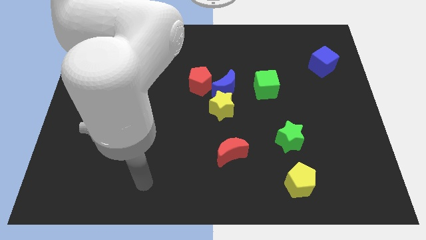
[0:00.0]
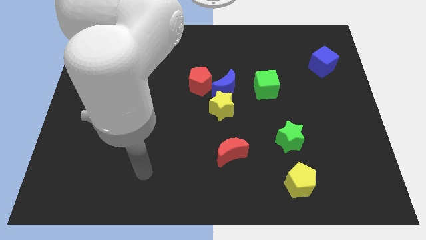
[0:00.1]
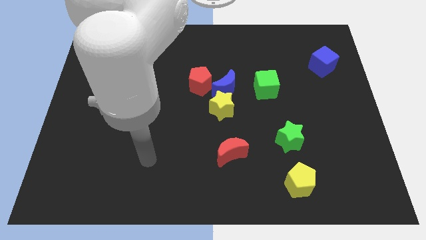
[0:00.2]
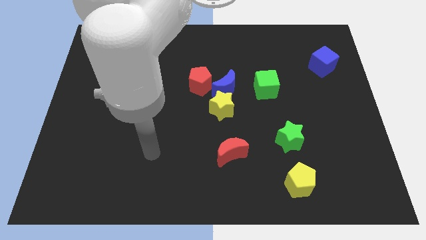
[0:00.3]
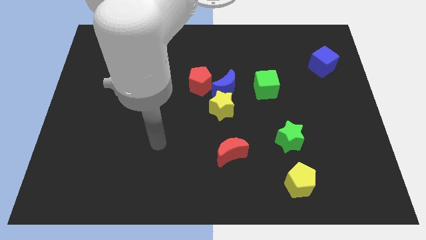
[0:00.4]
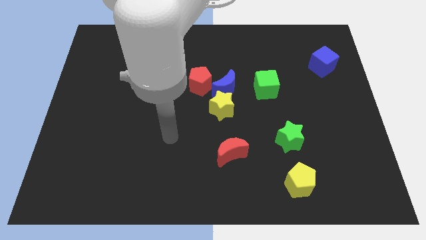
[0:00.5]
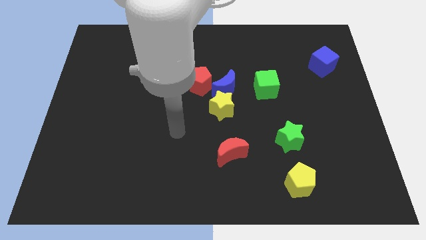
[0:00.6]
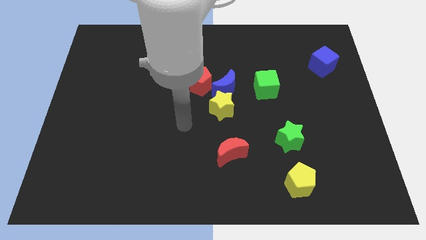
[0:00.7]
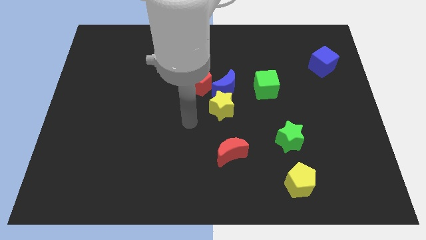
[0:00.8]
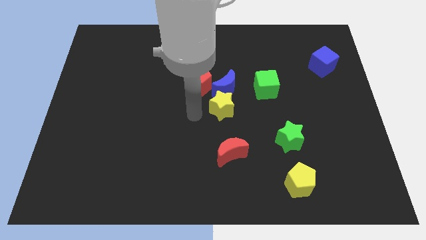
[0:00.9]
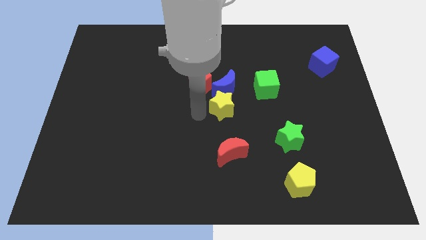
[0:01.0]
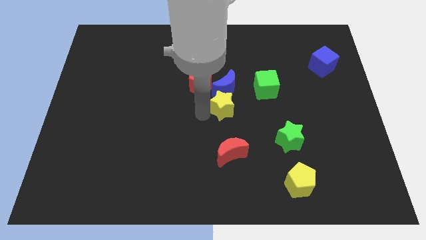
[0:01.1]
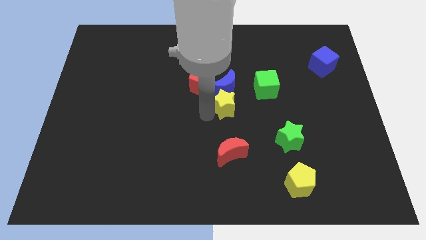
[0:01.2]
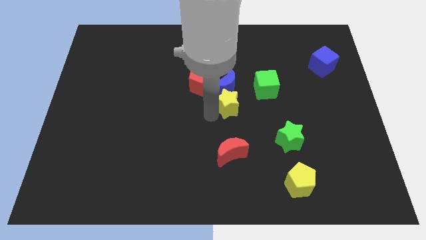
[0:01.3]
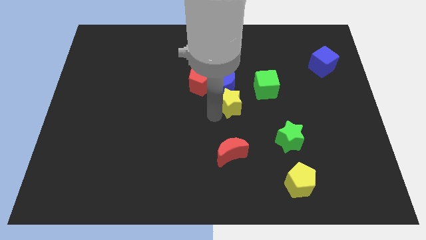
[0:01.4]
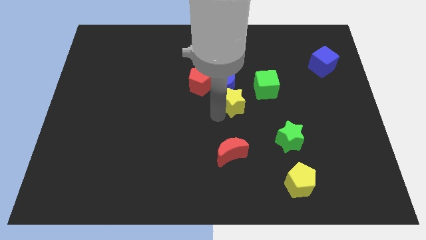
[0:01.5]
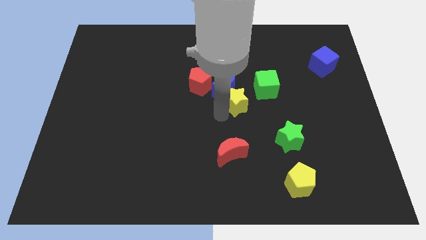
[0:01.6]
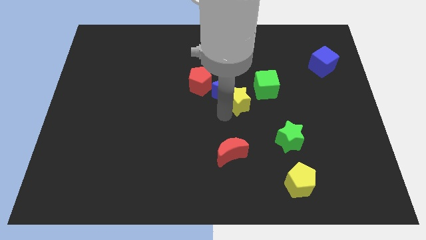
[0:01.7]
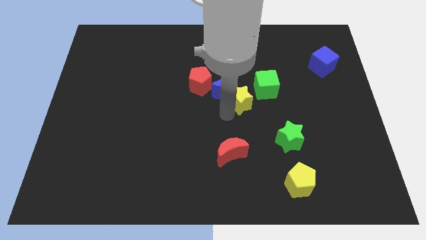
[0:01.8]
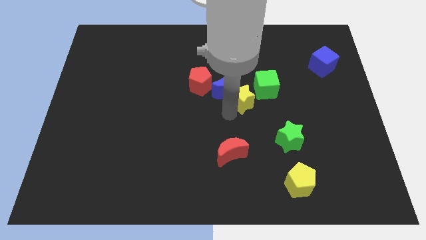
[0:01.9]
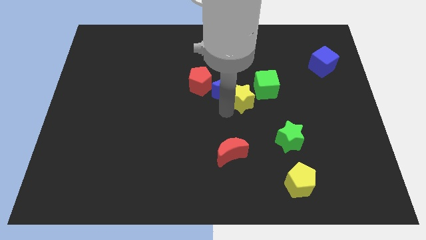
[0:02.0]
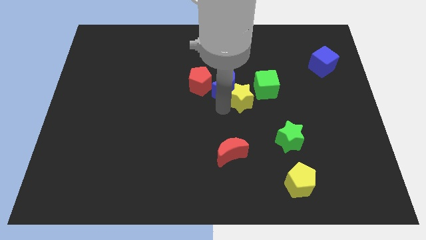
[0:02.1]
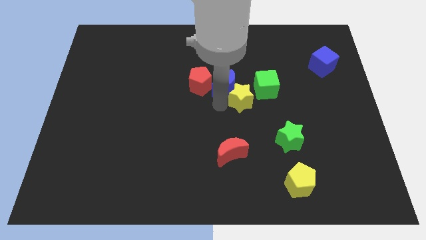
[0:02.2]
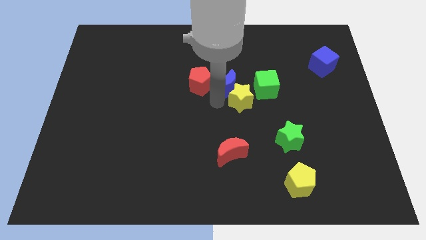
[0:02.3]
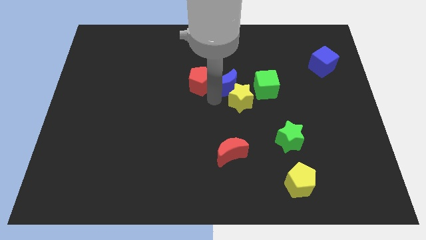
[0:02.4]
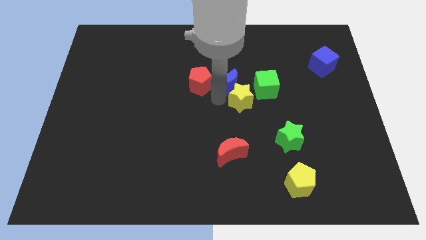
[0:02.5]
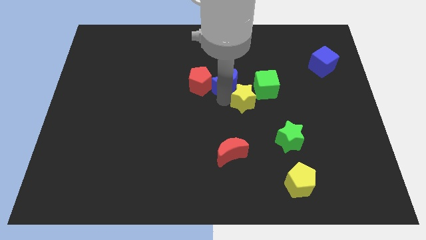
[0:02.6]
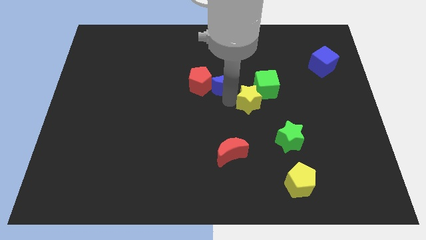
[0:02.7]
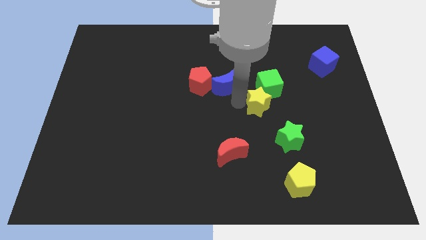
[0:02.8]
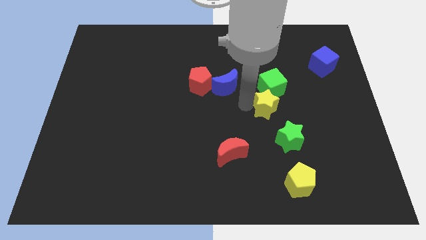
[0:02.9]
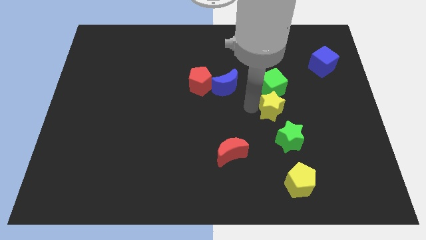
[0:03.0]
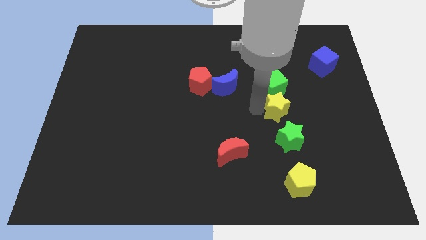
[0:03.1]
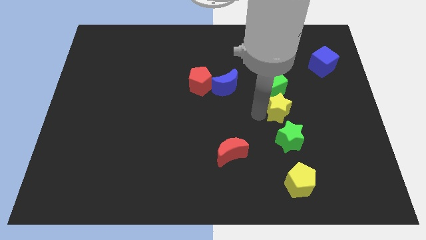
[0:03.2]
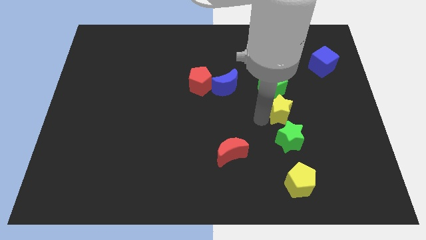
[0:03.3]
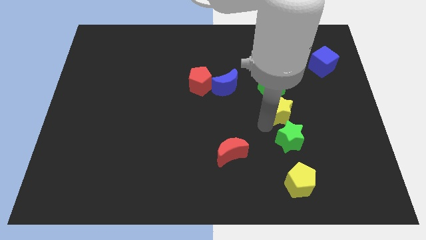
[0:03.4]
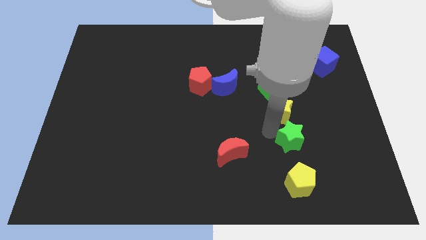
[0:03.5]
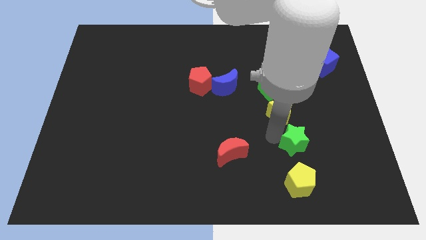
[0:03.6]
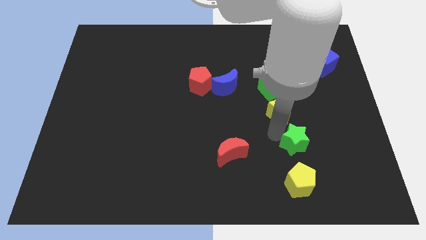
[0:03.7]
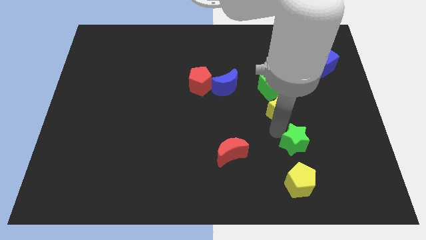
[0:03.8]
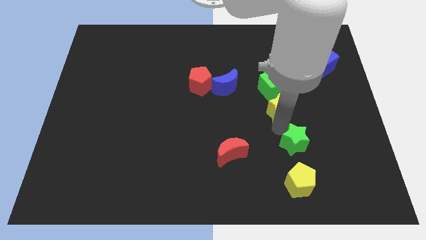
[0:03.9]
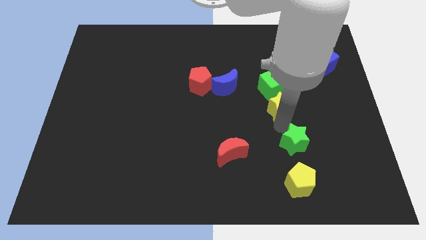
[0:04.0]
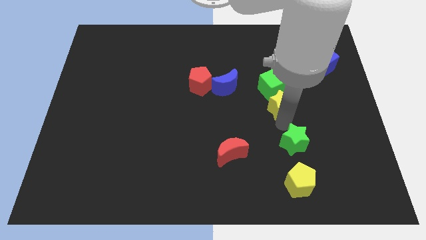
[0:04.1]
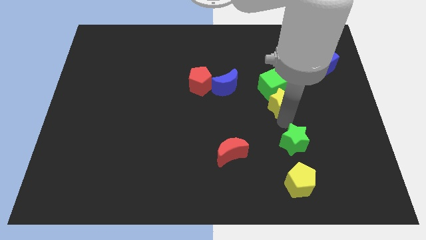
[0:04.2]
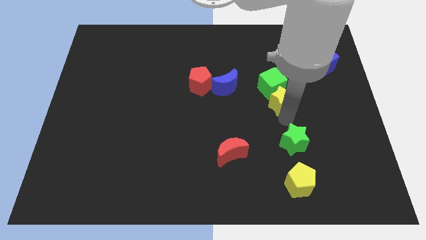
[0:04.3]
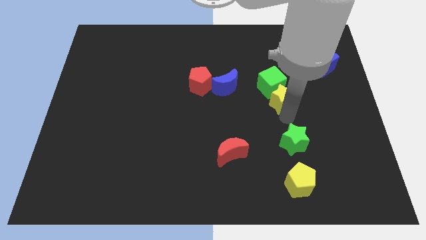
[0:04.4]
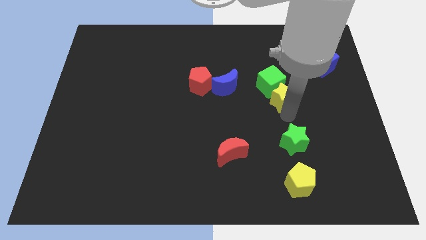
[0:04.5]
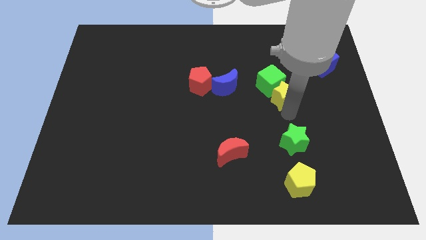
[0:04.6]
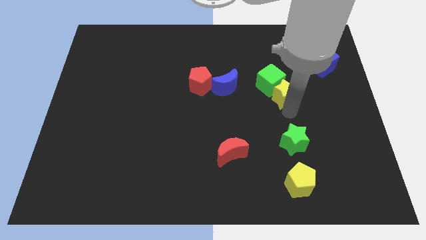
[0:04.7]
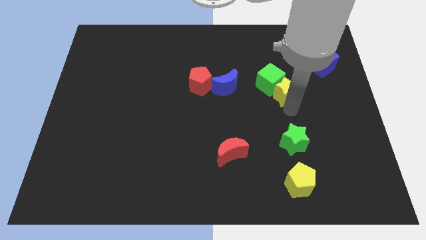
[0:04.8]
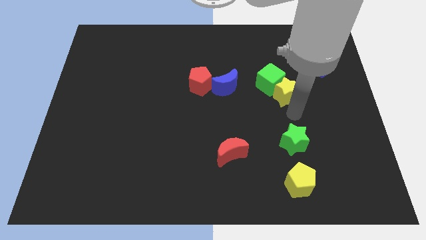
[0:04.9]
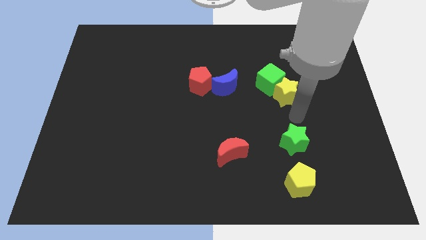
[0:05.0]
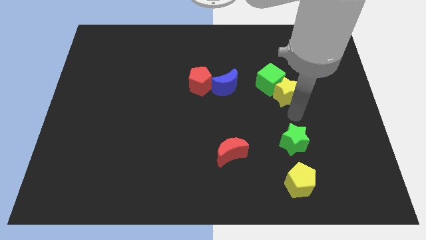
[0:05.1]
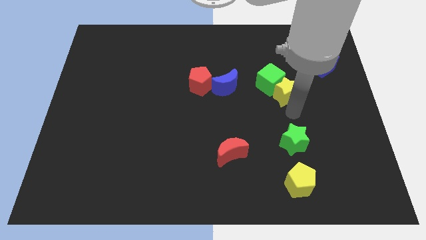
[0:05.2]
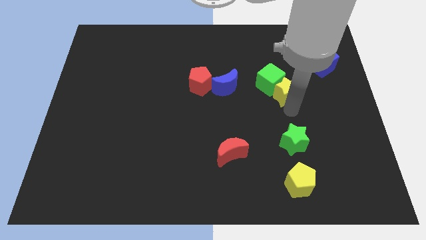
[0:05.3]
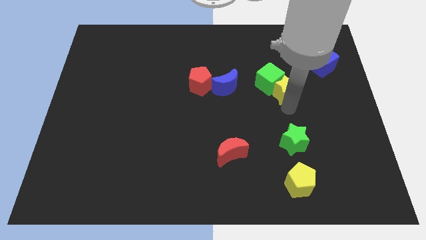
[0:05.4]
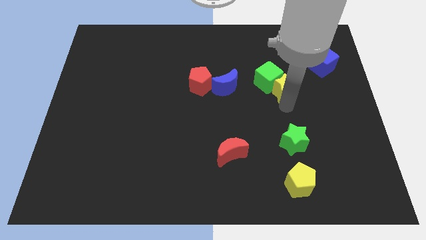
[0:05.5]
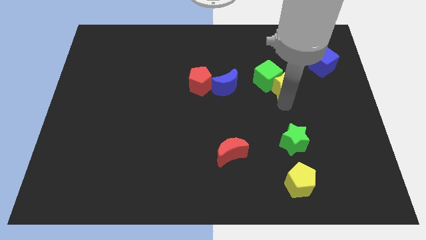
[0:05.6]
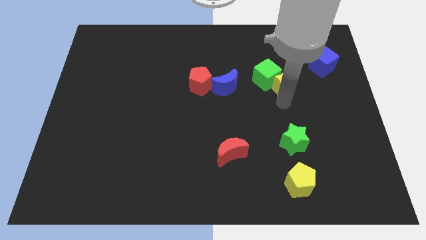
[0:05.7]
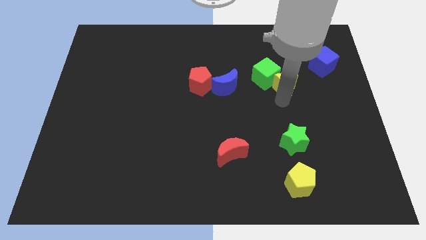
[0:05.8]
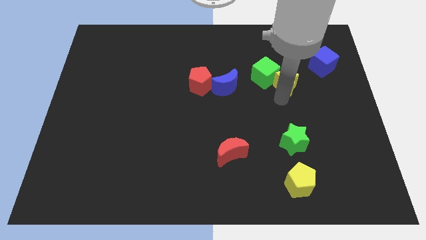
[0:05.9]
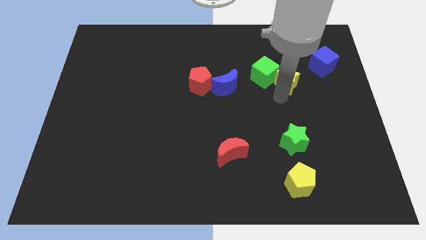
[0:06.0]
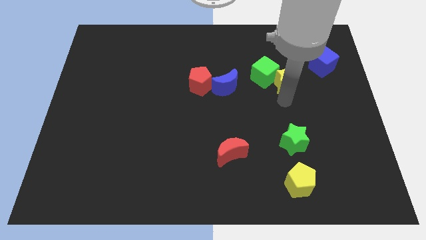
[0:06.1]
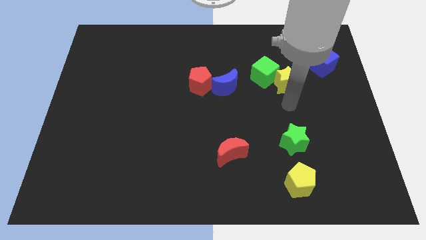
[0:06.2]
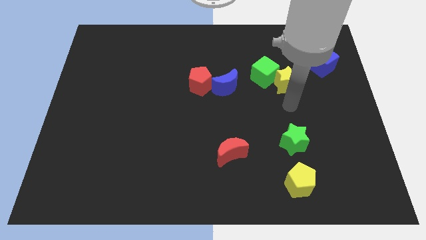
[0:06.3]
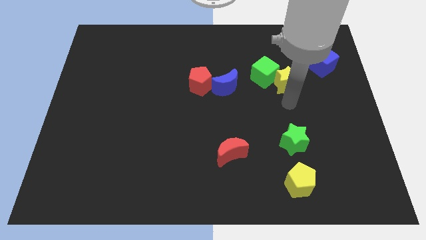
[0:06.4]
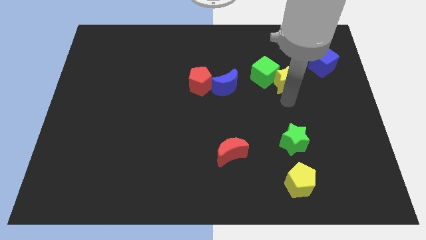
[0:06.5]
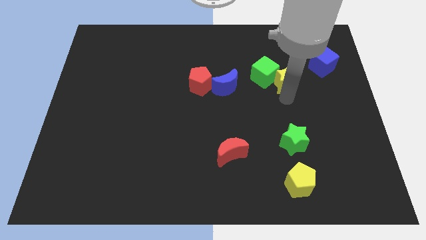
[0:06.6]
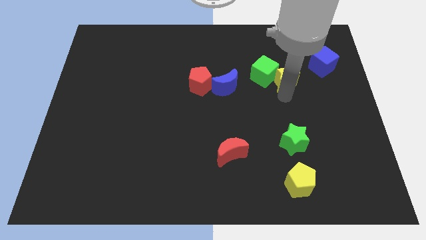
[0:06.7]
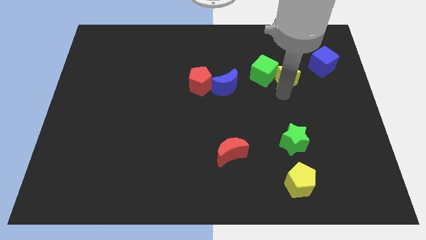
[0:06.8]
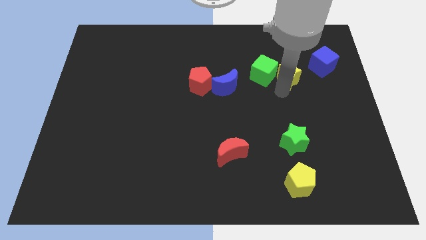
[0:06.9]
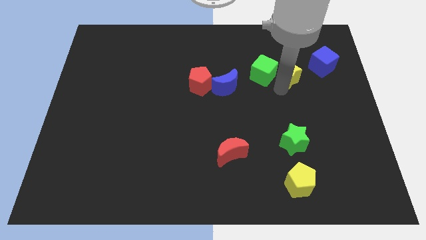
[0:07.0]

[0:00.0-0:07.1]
move the yellow star to the left of the blue cube
